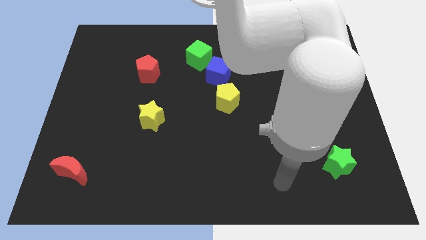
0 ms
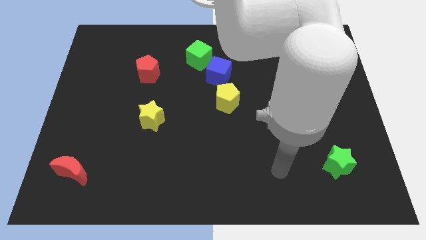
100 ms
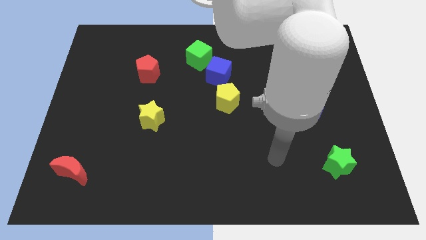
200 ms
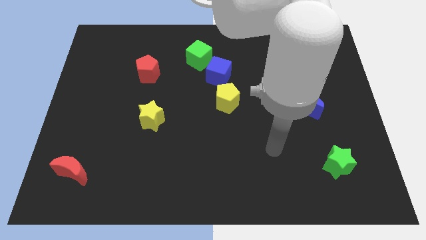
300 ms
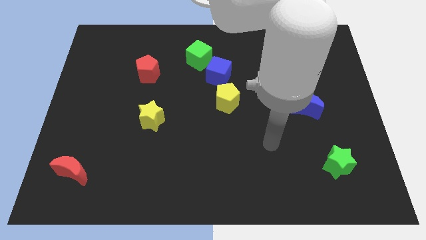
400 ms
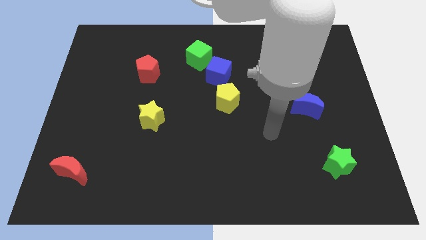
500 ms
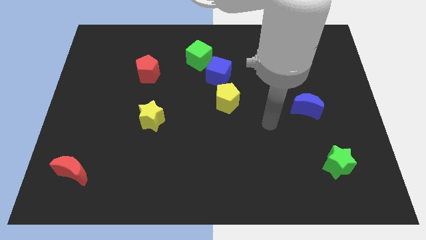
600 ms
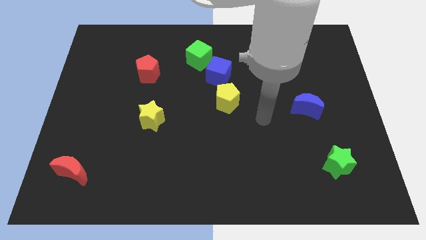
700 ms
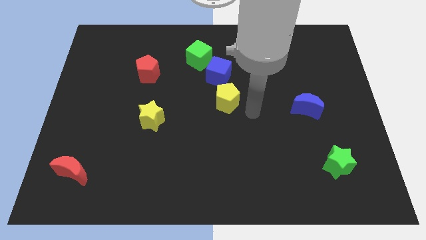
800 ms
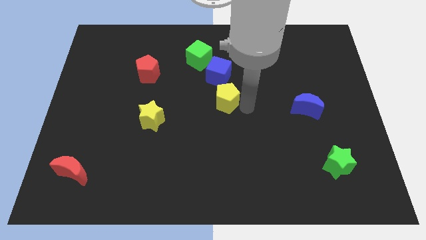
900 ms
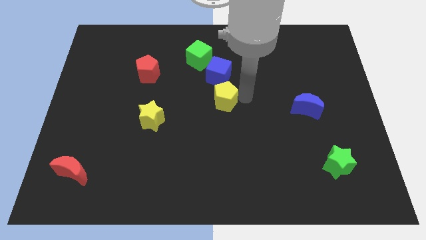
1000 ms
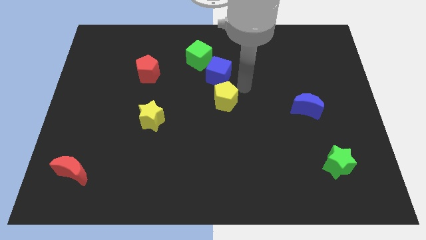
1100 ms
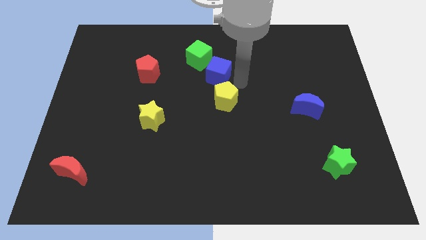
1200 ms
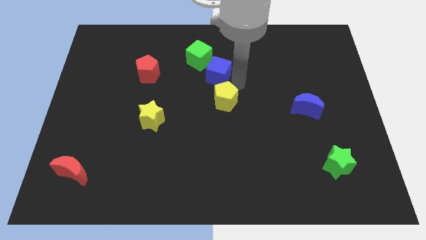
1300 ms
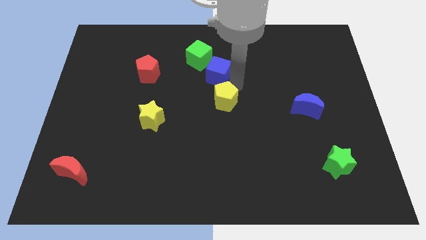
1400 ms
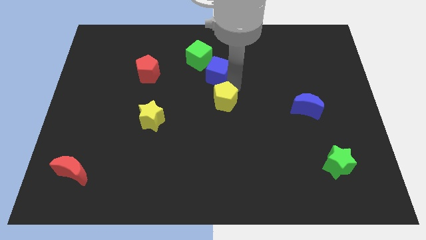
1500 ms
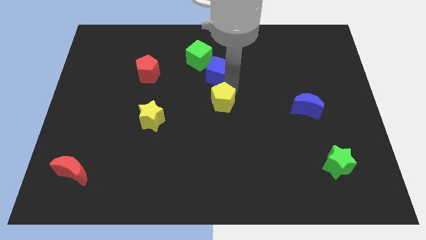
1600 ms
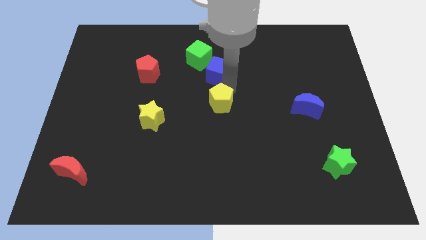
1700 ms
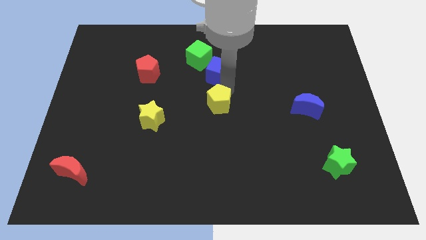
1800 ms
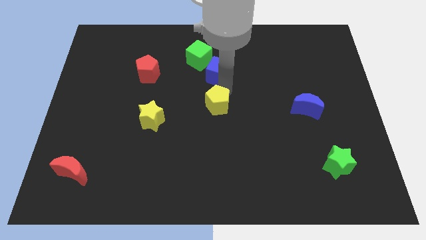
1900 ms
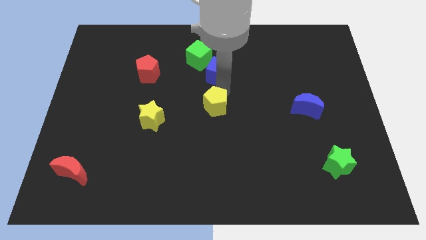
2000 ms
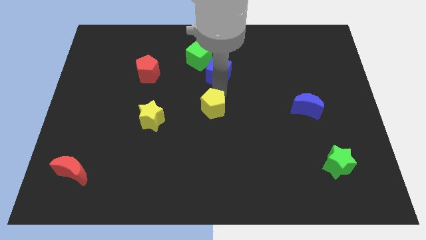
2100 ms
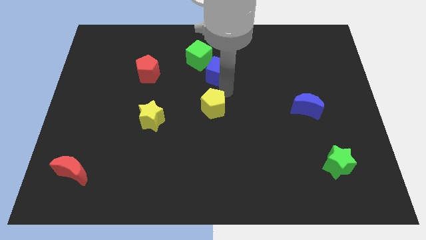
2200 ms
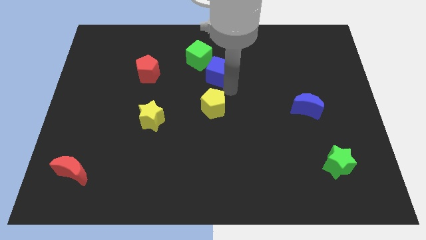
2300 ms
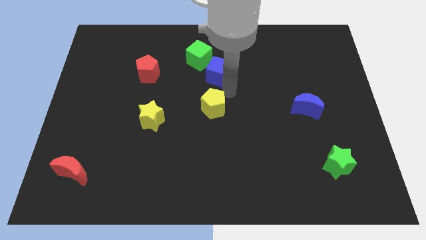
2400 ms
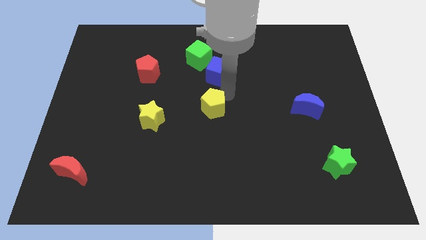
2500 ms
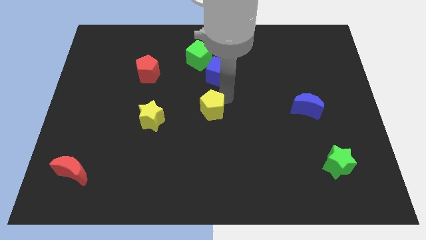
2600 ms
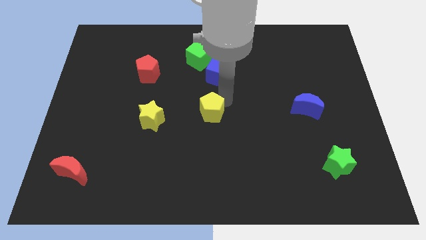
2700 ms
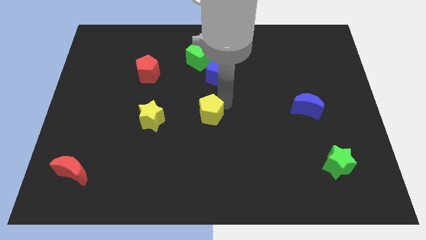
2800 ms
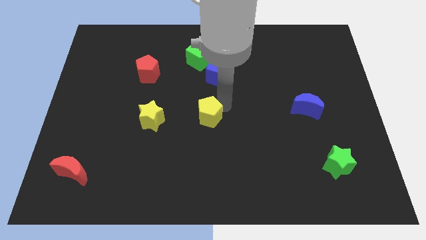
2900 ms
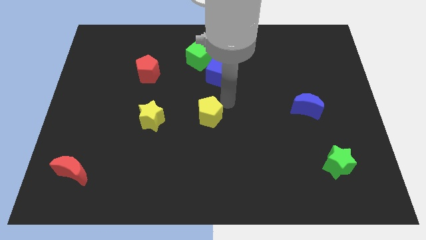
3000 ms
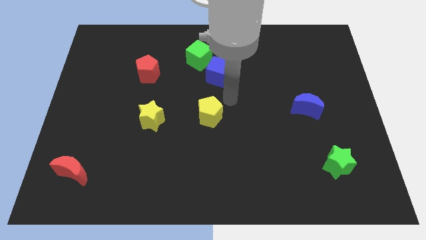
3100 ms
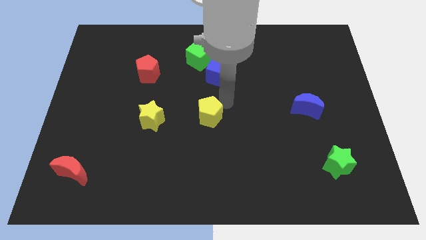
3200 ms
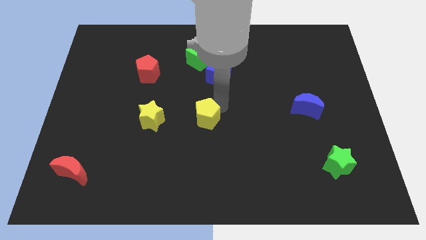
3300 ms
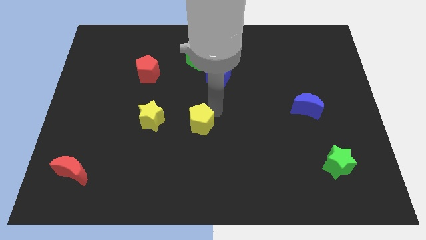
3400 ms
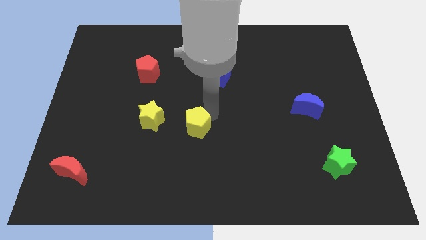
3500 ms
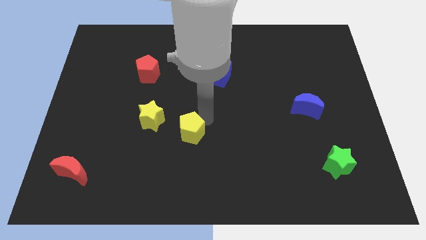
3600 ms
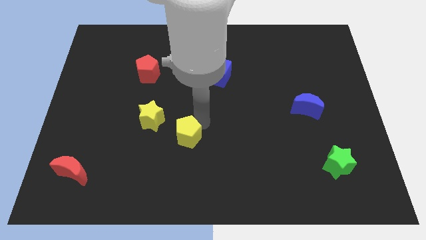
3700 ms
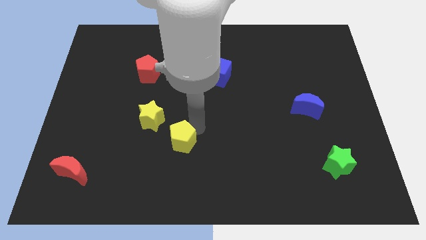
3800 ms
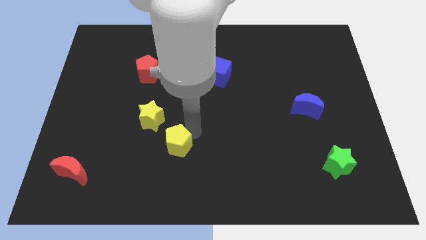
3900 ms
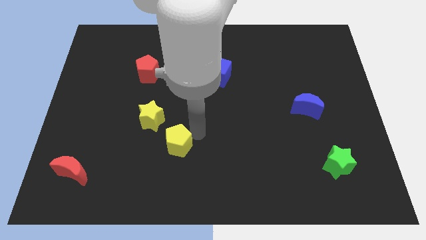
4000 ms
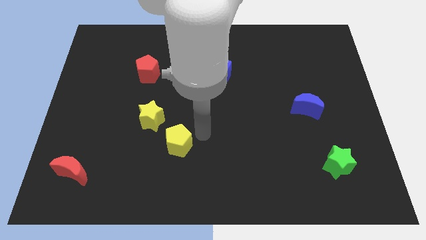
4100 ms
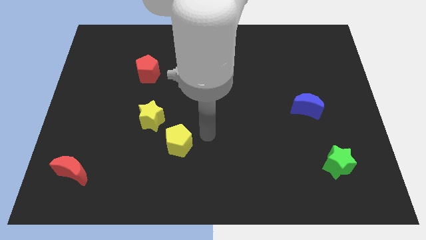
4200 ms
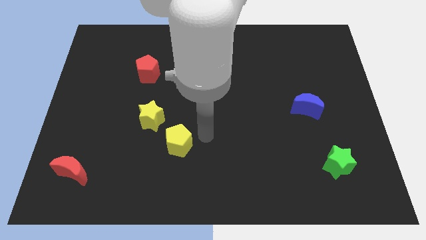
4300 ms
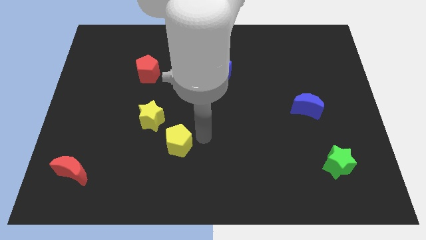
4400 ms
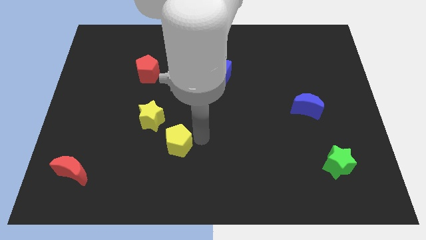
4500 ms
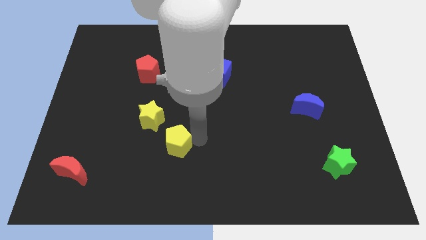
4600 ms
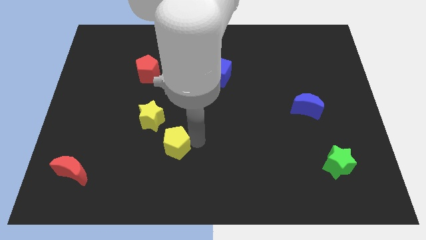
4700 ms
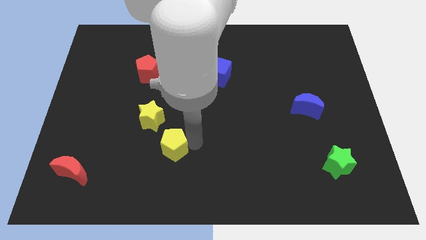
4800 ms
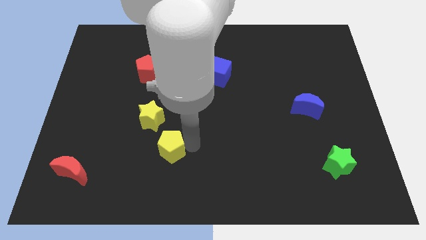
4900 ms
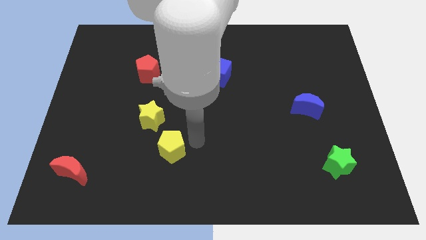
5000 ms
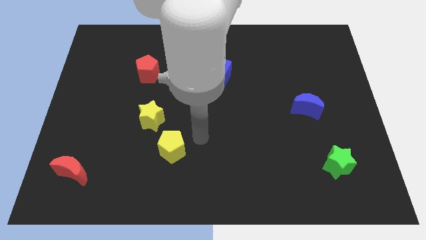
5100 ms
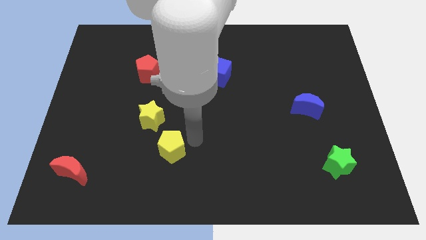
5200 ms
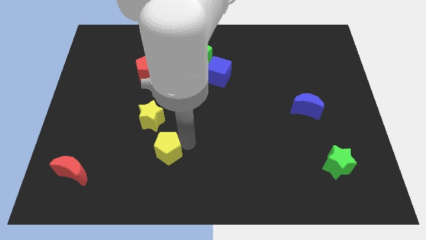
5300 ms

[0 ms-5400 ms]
move the yellow pentagon below the yellow star

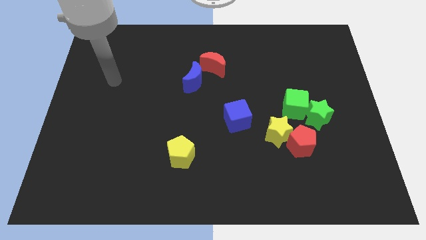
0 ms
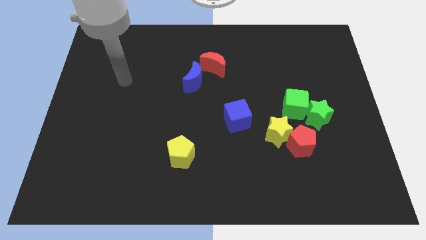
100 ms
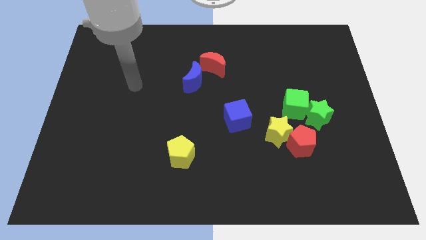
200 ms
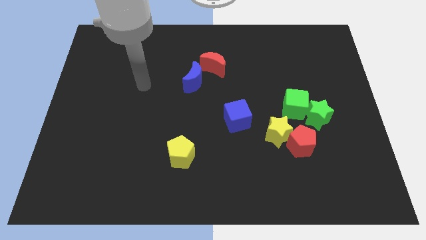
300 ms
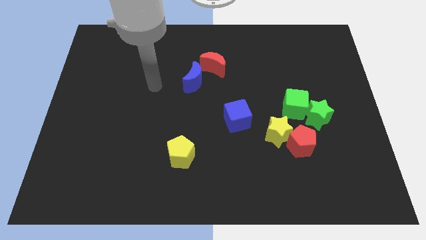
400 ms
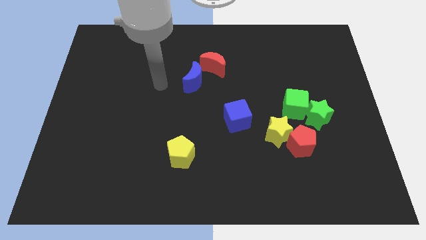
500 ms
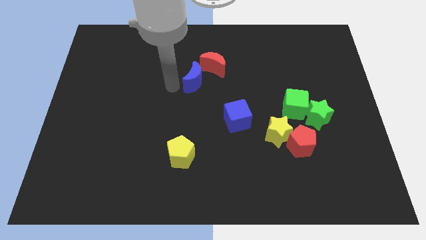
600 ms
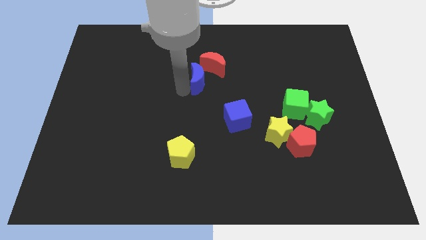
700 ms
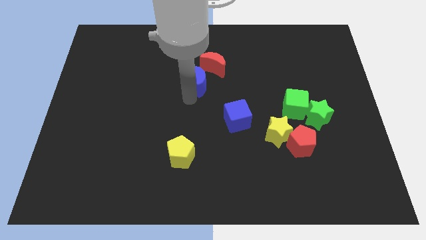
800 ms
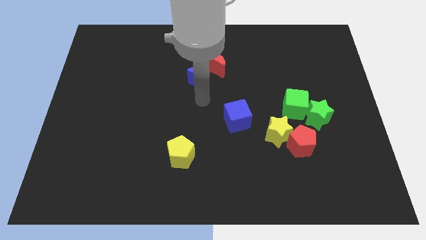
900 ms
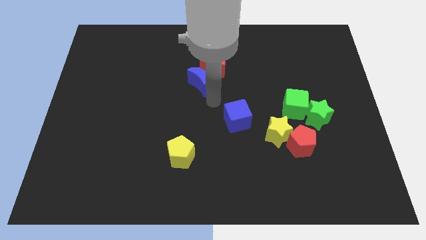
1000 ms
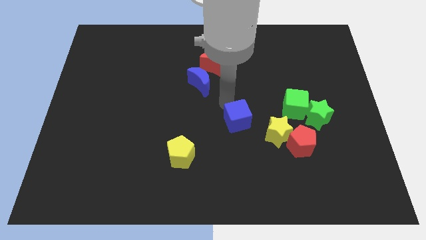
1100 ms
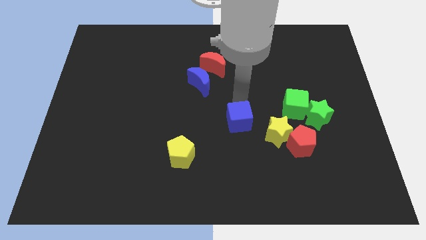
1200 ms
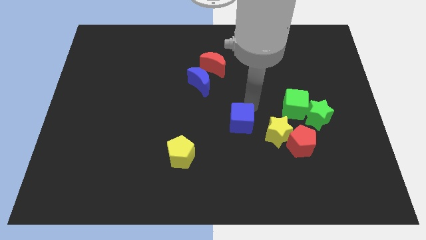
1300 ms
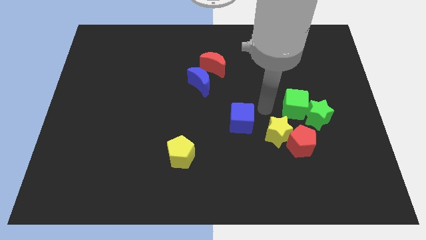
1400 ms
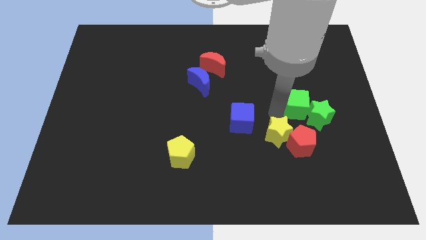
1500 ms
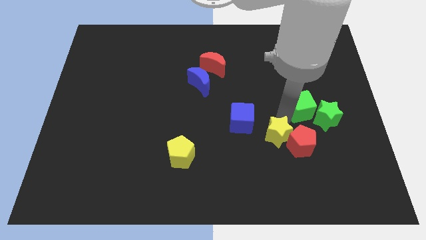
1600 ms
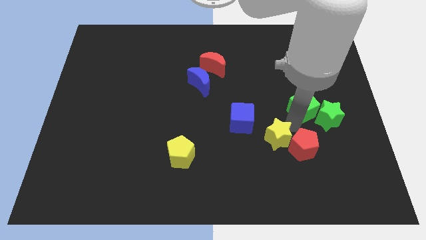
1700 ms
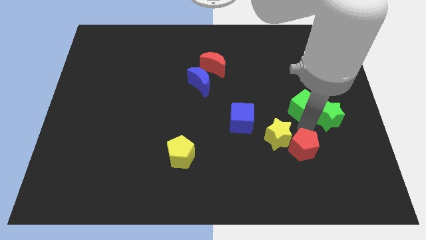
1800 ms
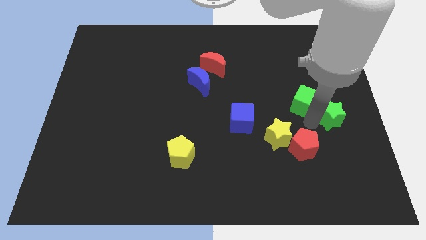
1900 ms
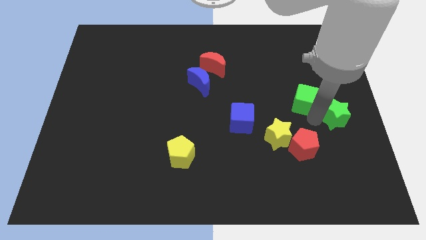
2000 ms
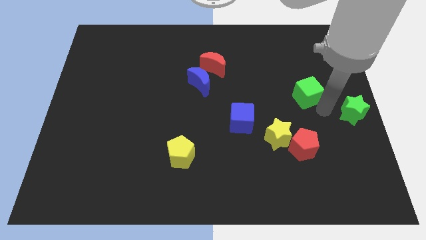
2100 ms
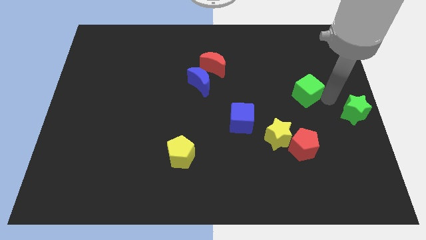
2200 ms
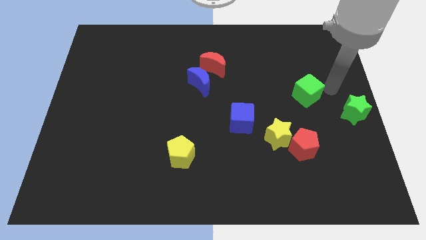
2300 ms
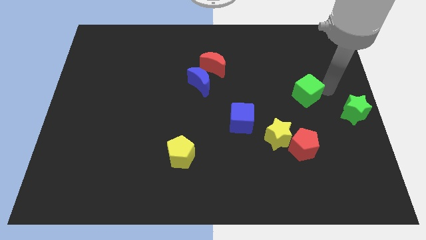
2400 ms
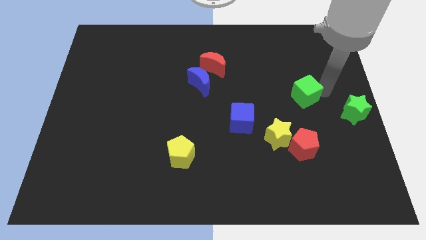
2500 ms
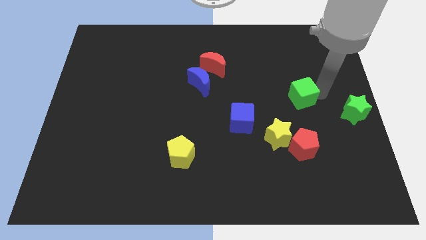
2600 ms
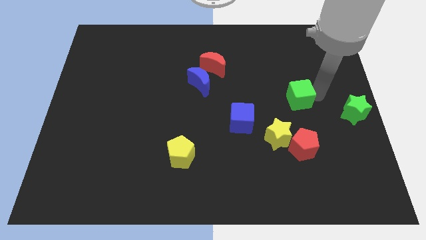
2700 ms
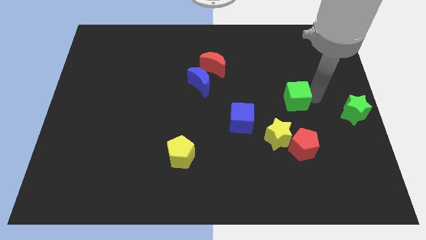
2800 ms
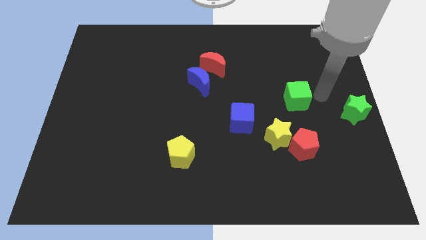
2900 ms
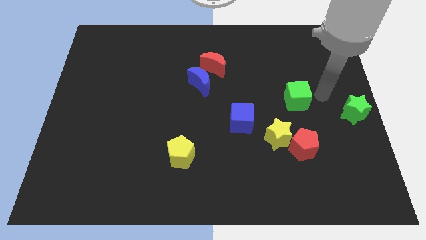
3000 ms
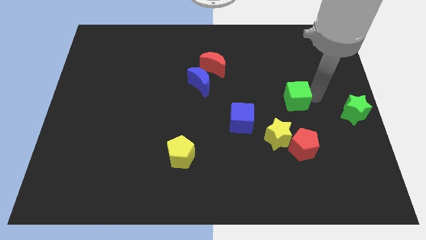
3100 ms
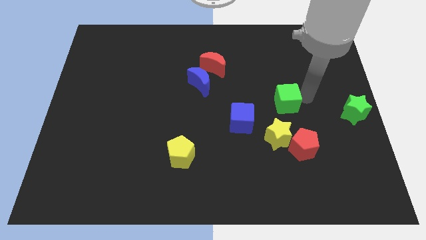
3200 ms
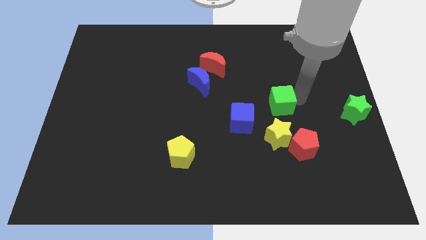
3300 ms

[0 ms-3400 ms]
put the green cube to the top right side of the blue cube
